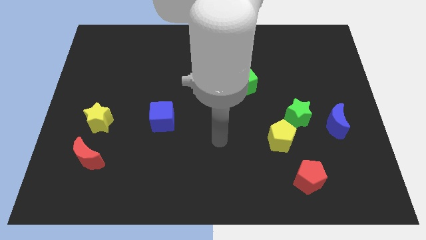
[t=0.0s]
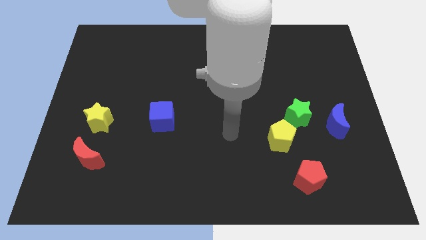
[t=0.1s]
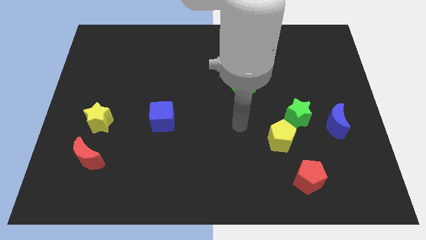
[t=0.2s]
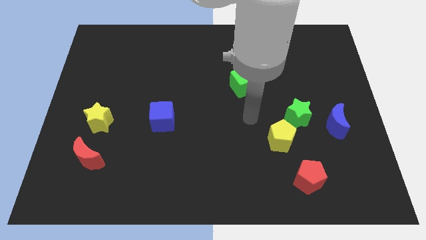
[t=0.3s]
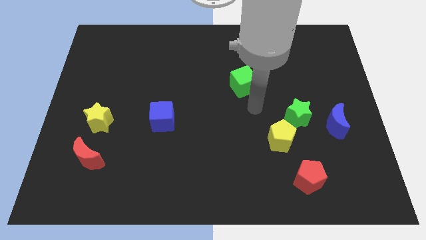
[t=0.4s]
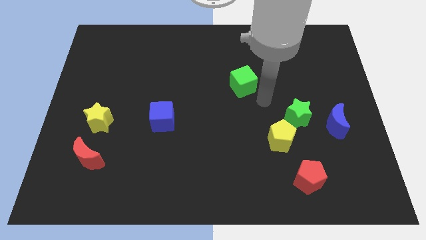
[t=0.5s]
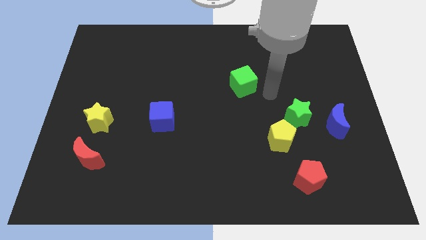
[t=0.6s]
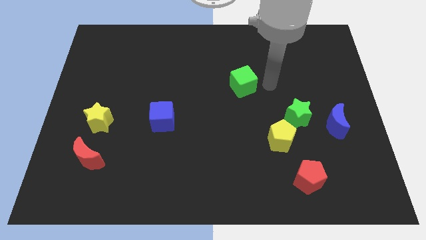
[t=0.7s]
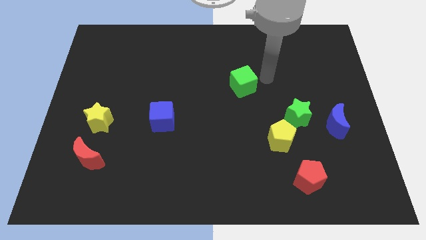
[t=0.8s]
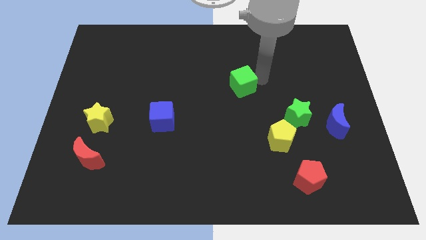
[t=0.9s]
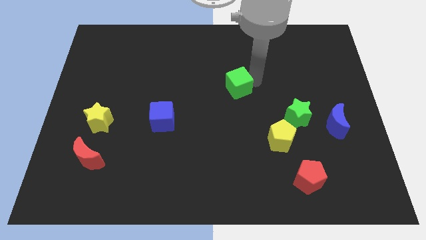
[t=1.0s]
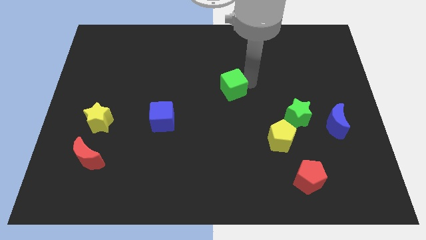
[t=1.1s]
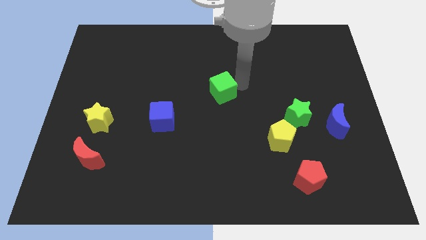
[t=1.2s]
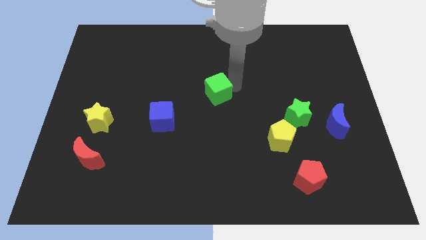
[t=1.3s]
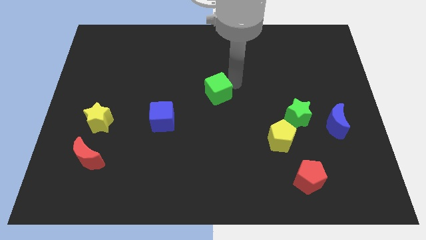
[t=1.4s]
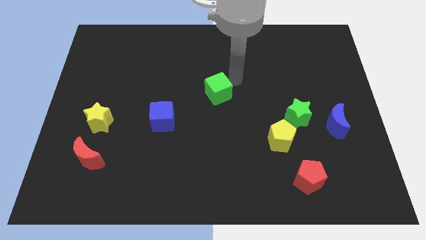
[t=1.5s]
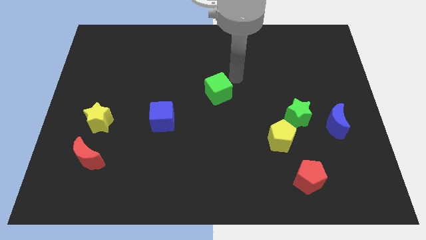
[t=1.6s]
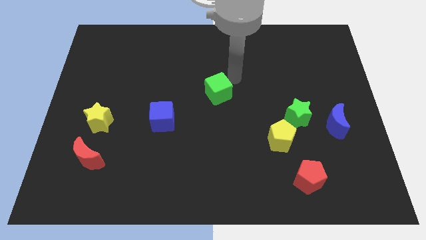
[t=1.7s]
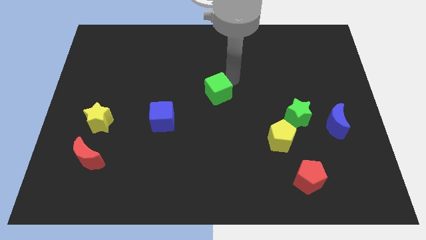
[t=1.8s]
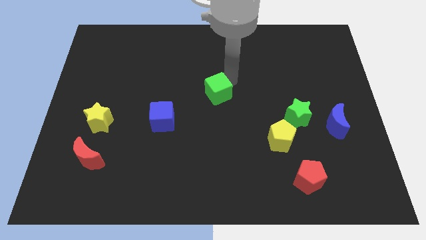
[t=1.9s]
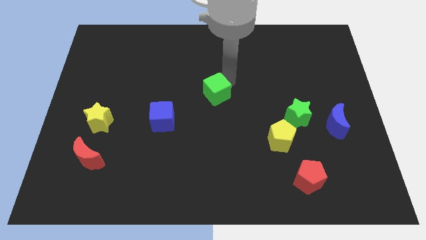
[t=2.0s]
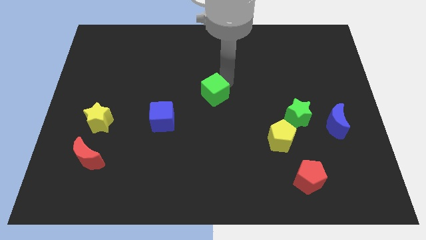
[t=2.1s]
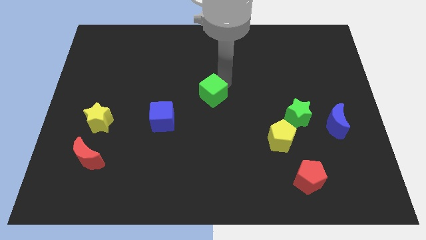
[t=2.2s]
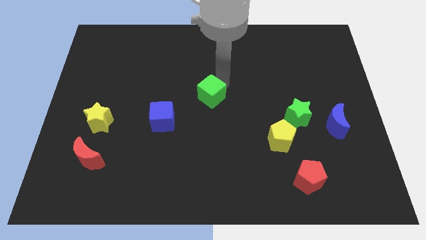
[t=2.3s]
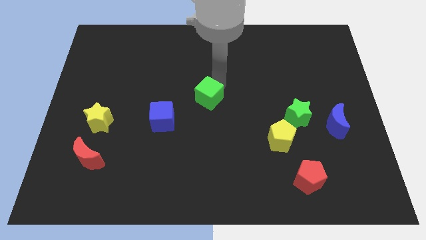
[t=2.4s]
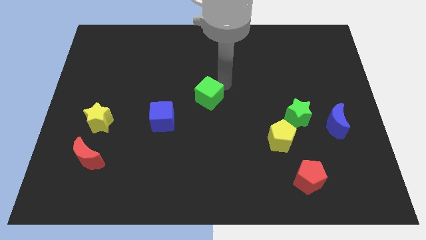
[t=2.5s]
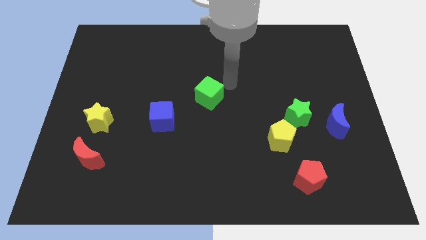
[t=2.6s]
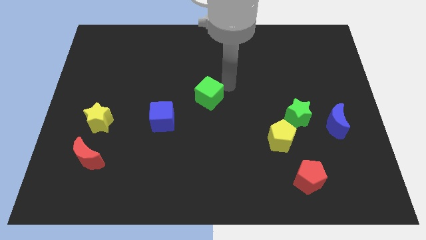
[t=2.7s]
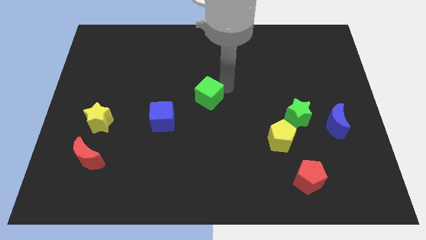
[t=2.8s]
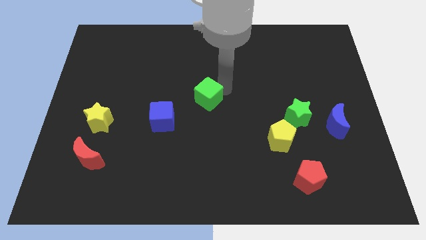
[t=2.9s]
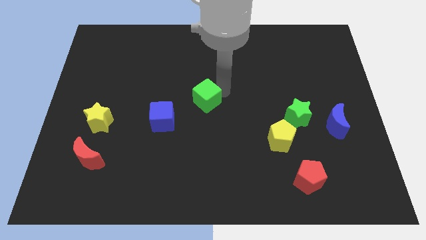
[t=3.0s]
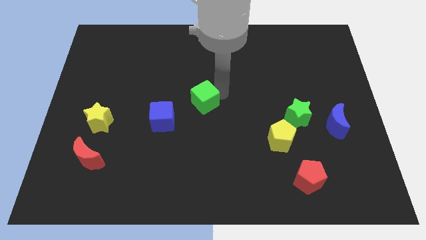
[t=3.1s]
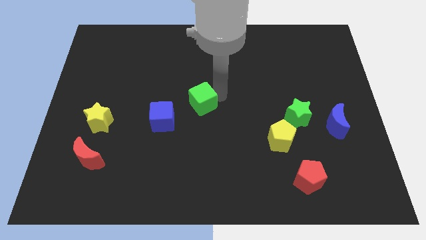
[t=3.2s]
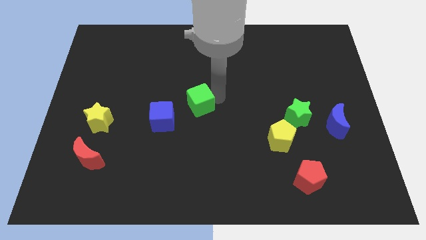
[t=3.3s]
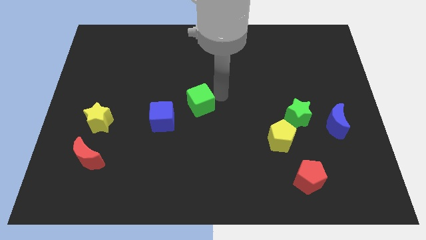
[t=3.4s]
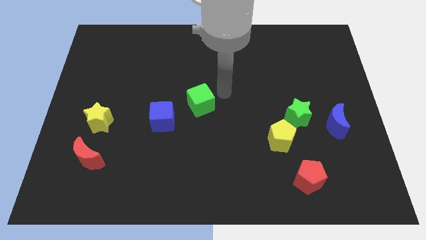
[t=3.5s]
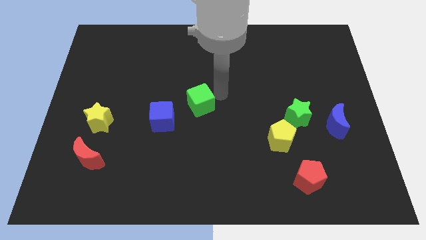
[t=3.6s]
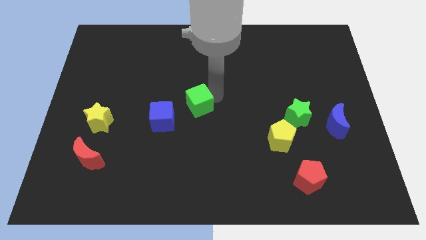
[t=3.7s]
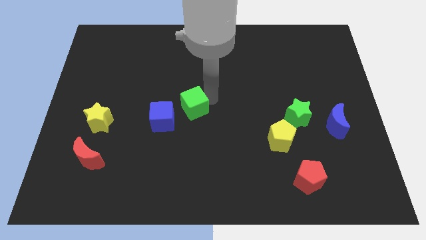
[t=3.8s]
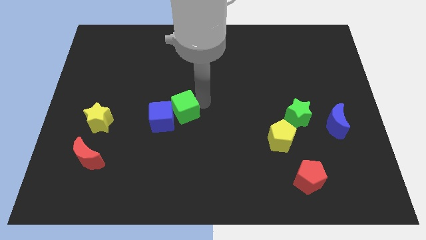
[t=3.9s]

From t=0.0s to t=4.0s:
push the green cube towards the blue cube

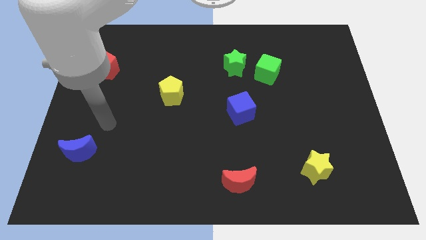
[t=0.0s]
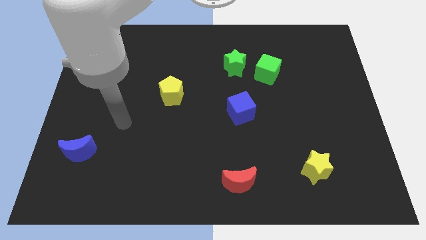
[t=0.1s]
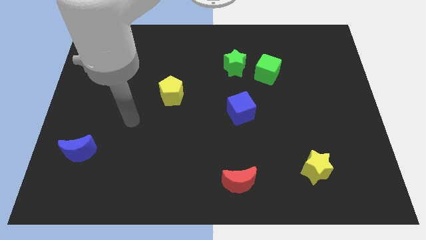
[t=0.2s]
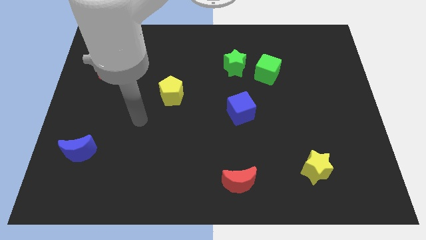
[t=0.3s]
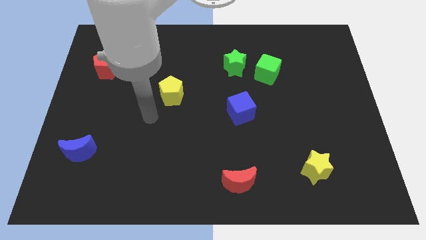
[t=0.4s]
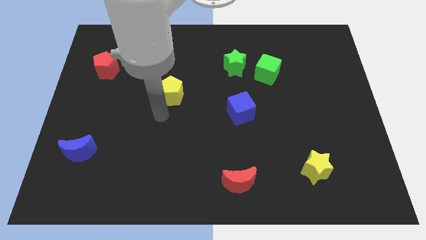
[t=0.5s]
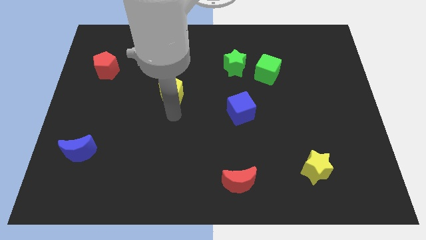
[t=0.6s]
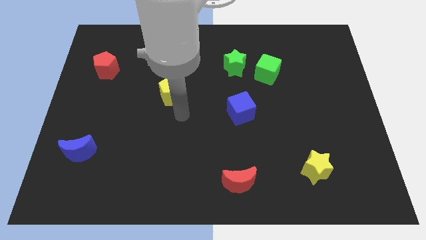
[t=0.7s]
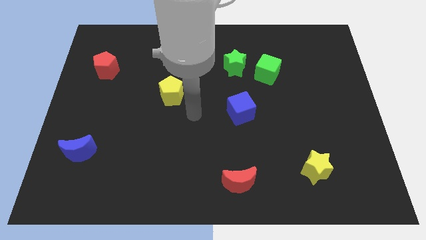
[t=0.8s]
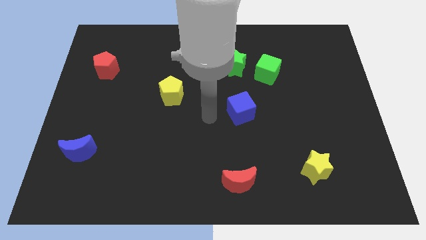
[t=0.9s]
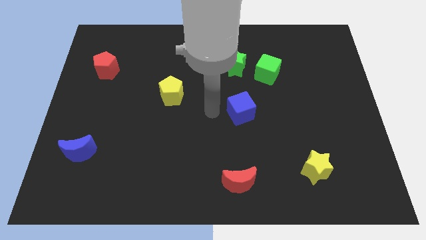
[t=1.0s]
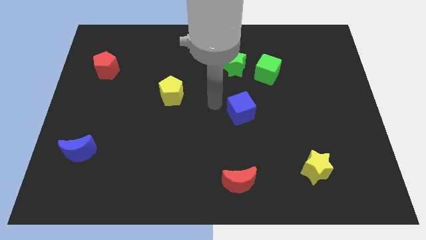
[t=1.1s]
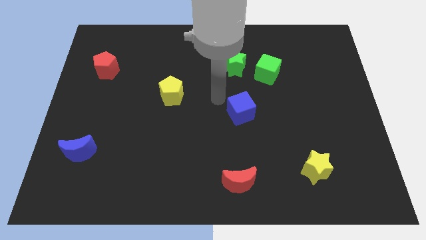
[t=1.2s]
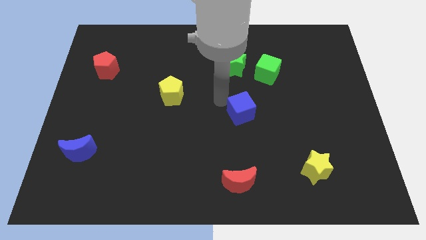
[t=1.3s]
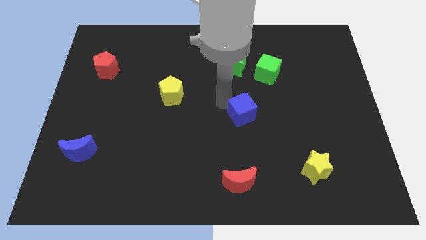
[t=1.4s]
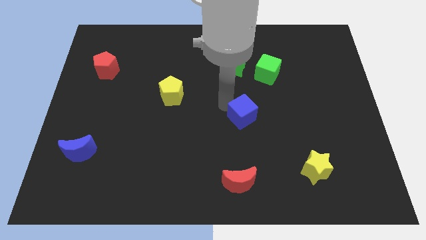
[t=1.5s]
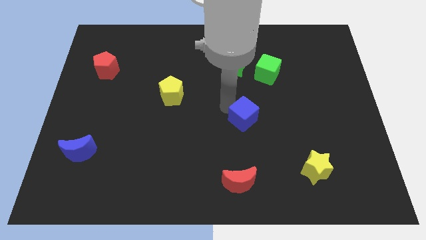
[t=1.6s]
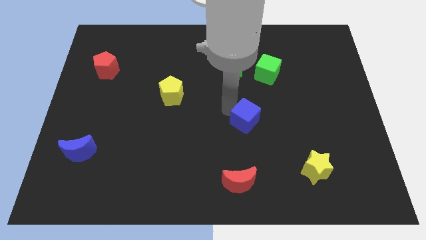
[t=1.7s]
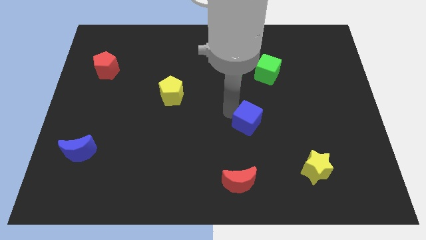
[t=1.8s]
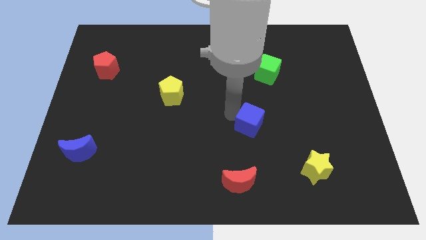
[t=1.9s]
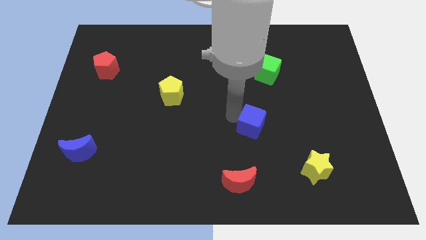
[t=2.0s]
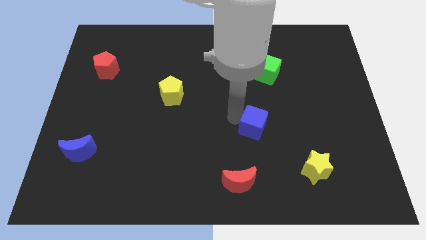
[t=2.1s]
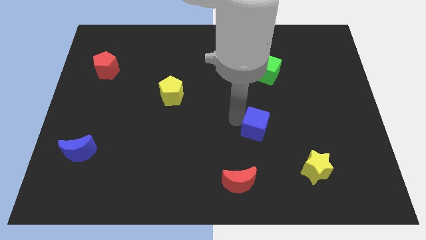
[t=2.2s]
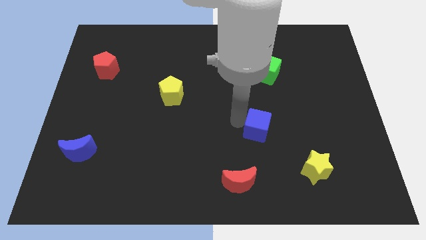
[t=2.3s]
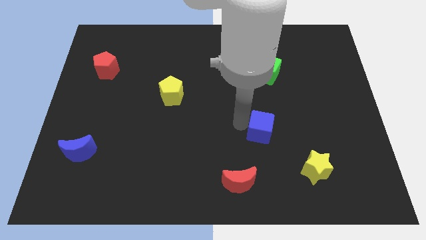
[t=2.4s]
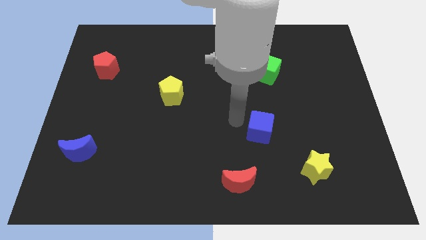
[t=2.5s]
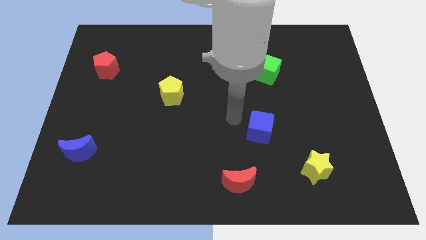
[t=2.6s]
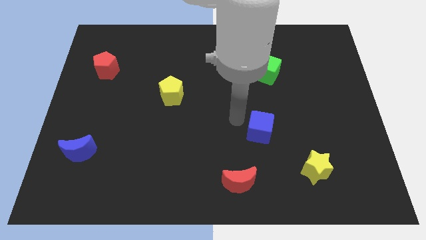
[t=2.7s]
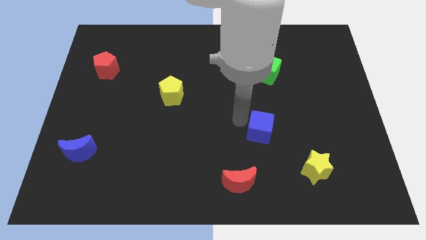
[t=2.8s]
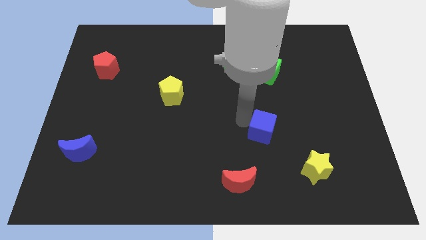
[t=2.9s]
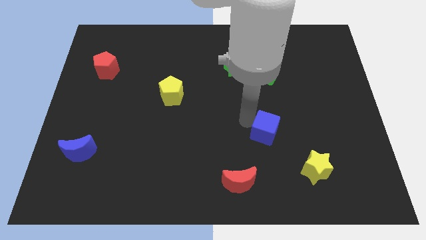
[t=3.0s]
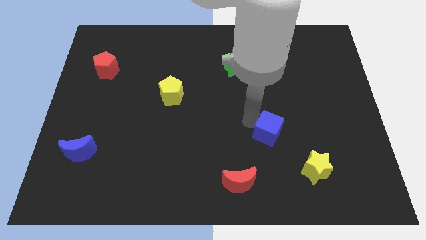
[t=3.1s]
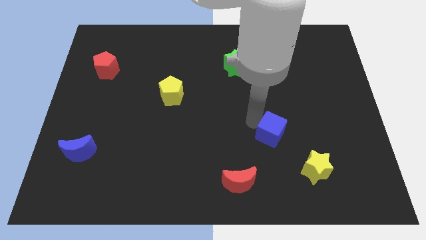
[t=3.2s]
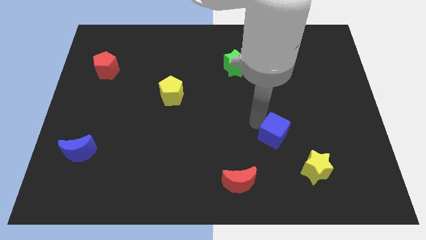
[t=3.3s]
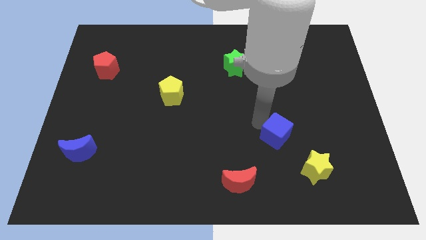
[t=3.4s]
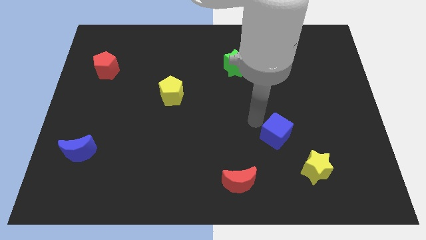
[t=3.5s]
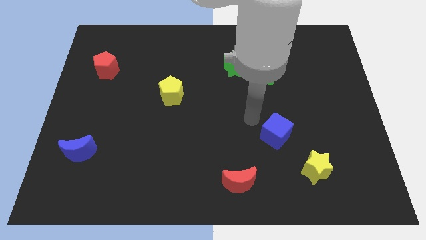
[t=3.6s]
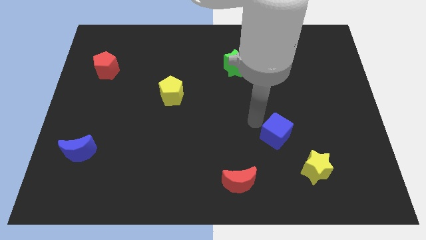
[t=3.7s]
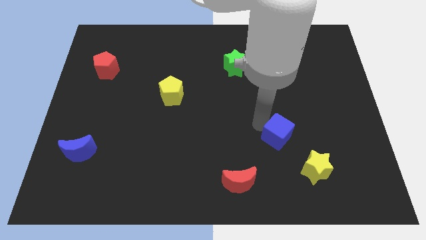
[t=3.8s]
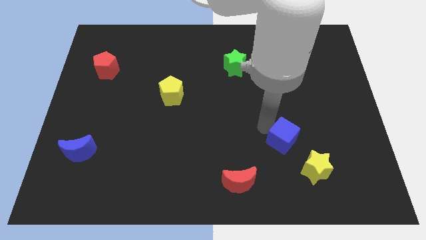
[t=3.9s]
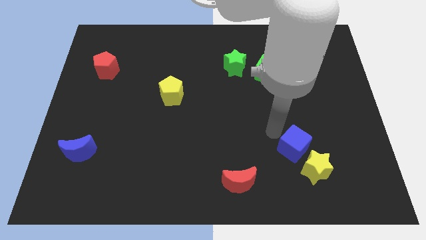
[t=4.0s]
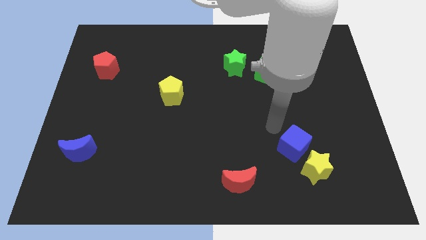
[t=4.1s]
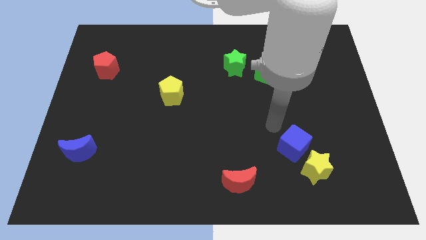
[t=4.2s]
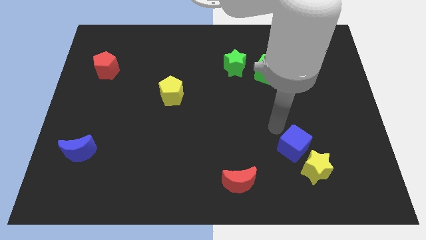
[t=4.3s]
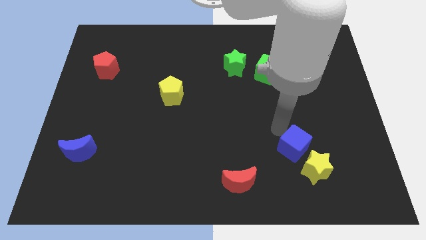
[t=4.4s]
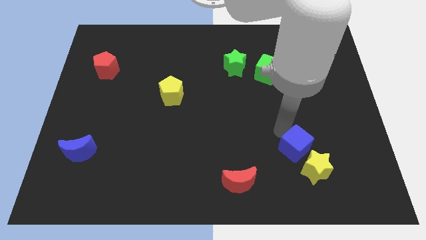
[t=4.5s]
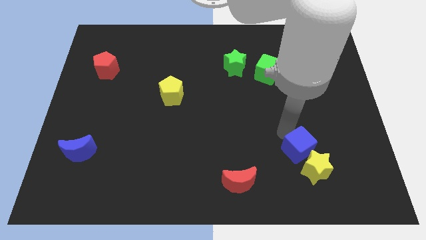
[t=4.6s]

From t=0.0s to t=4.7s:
put the blue cube close to the yellow star
